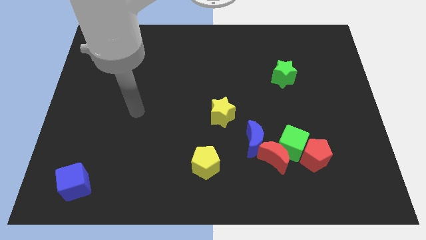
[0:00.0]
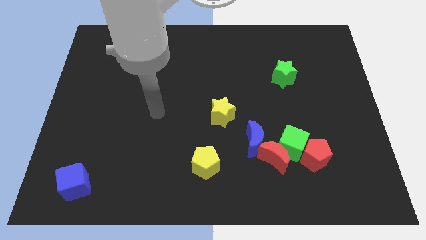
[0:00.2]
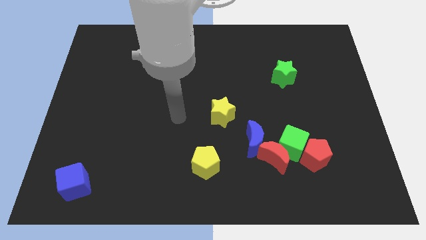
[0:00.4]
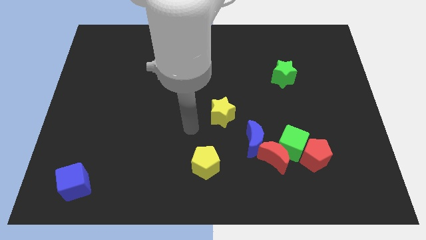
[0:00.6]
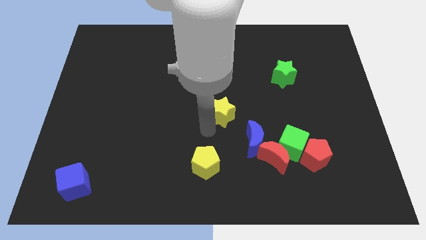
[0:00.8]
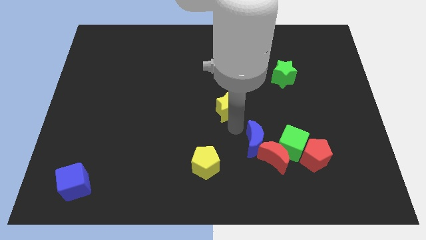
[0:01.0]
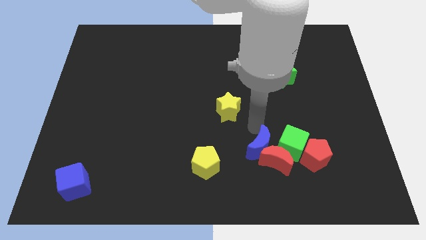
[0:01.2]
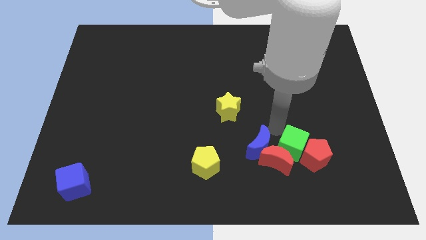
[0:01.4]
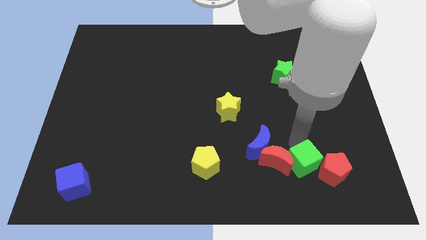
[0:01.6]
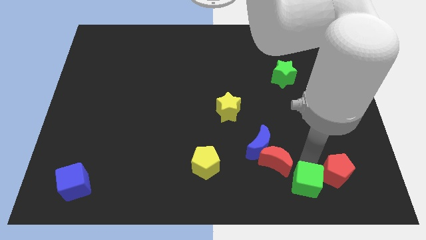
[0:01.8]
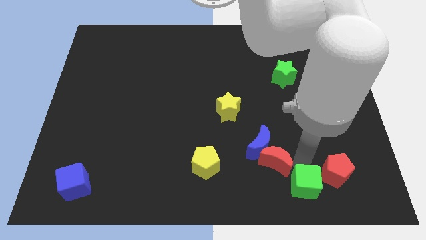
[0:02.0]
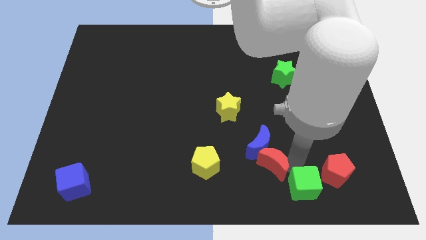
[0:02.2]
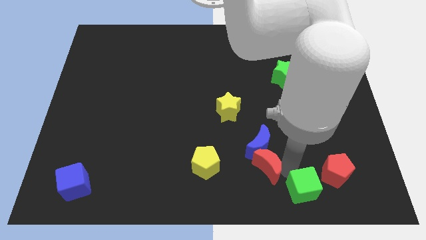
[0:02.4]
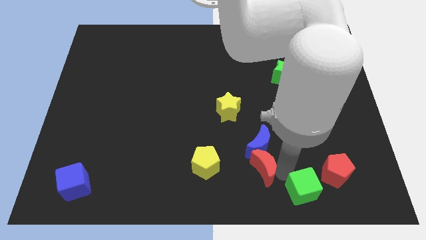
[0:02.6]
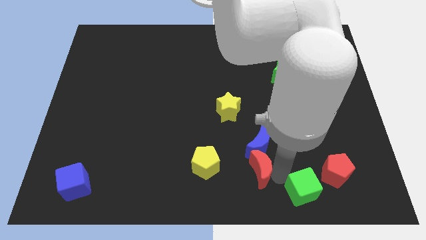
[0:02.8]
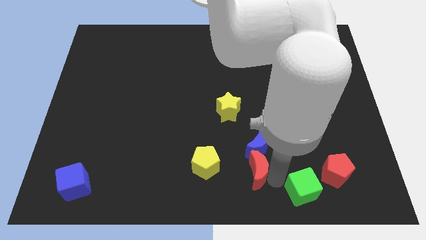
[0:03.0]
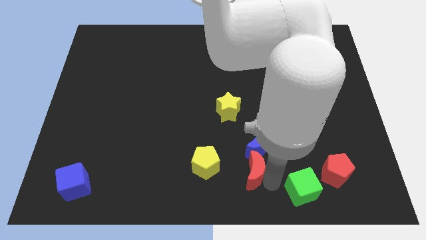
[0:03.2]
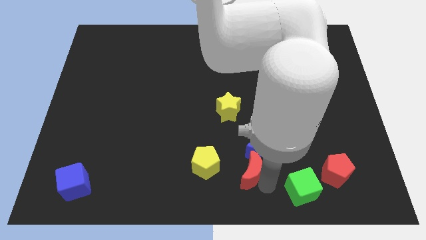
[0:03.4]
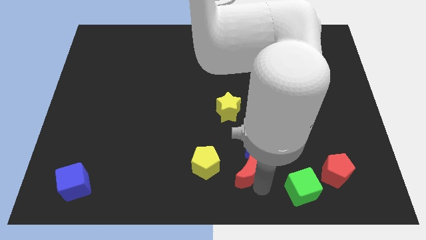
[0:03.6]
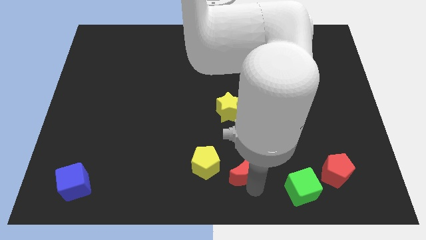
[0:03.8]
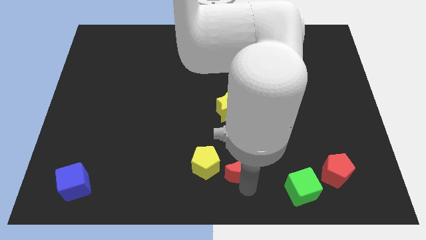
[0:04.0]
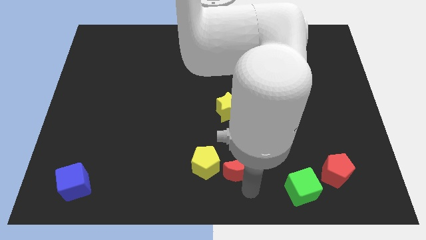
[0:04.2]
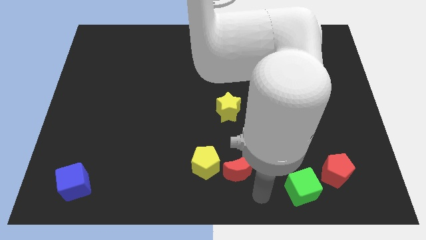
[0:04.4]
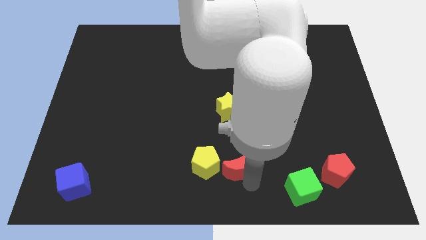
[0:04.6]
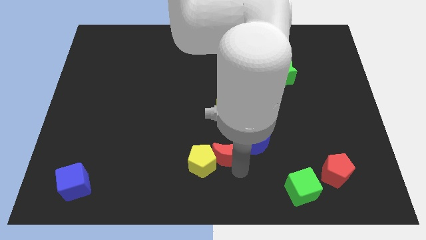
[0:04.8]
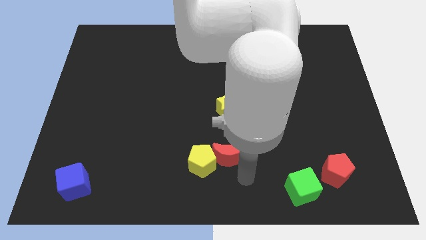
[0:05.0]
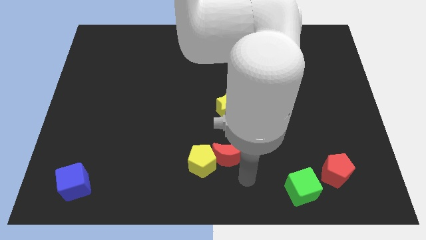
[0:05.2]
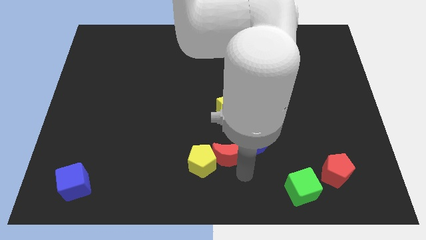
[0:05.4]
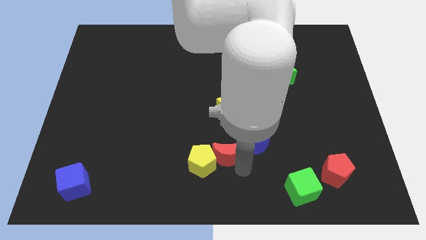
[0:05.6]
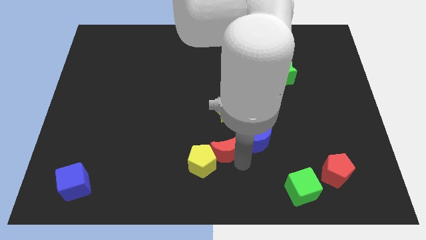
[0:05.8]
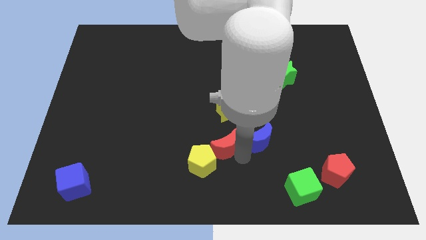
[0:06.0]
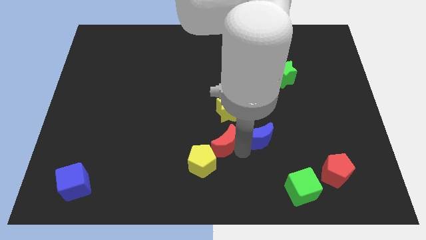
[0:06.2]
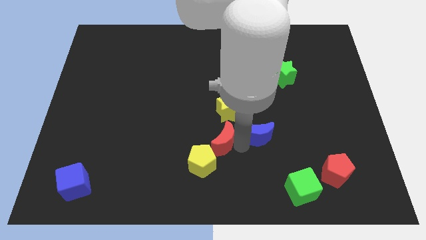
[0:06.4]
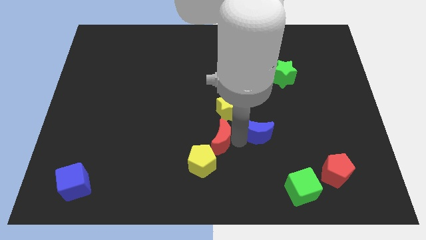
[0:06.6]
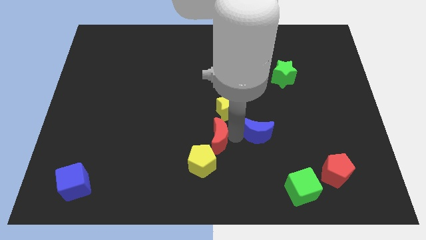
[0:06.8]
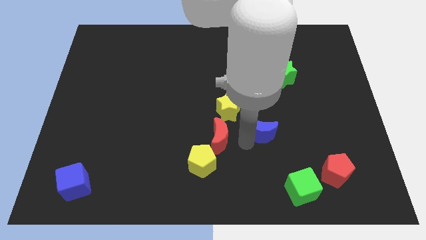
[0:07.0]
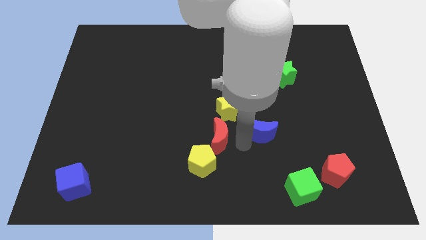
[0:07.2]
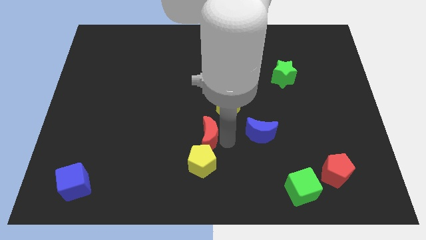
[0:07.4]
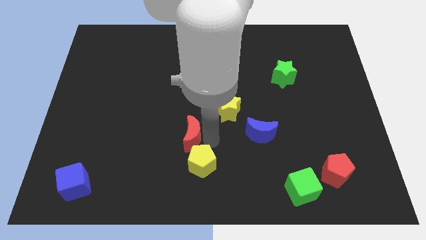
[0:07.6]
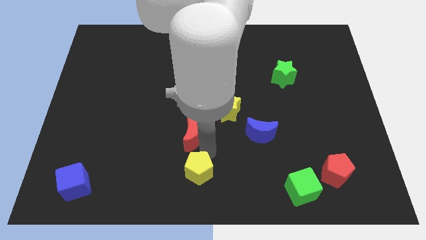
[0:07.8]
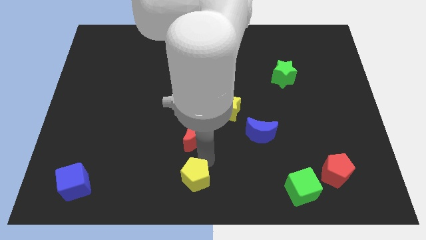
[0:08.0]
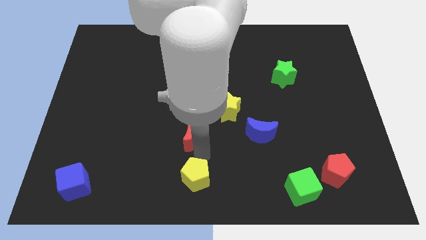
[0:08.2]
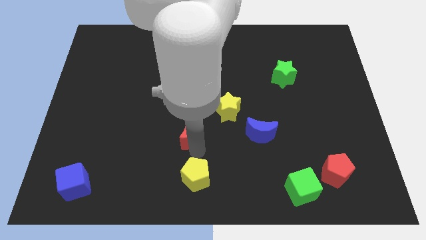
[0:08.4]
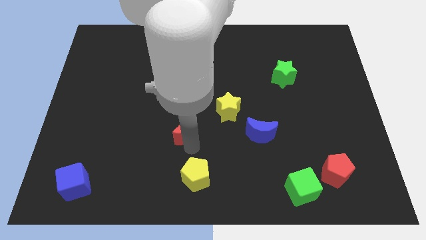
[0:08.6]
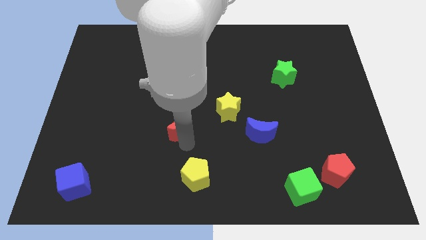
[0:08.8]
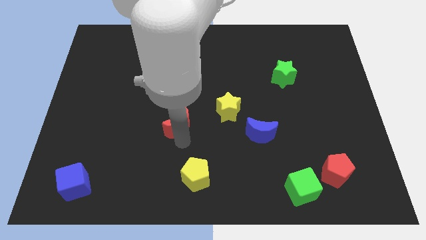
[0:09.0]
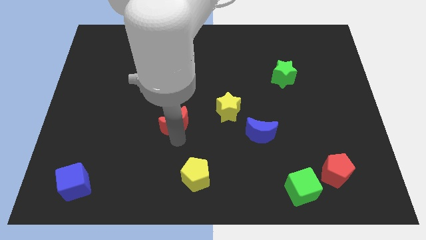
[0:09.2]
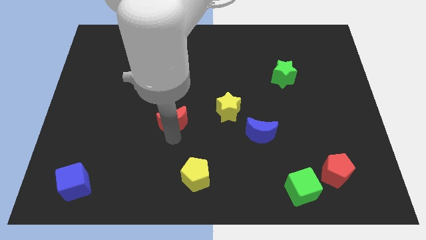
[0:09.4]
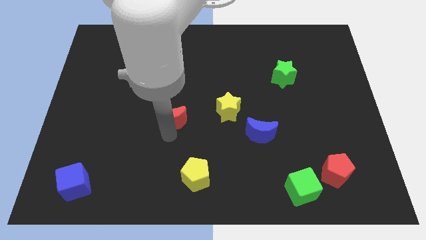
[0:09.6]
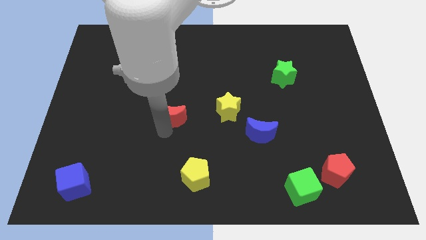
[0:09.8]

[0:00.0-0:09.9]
push the red moon upwards and left

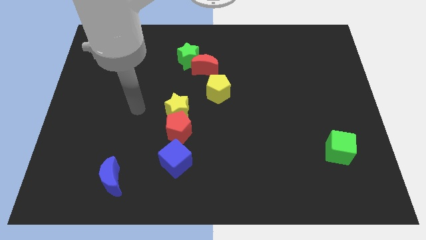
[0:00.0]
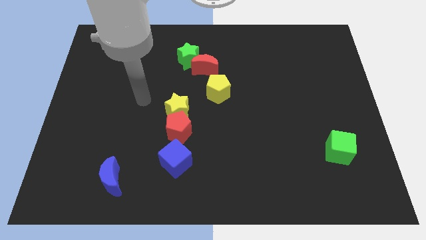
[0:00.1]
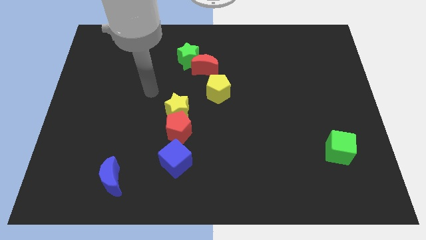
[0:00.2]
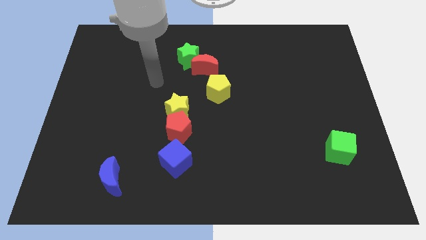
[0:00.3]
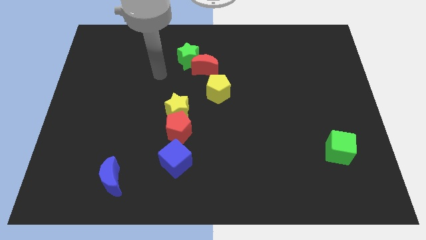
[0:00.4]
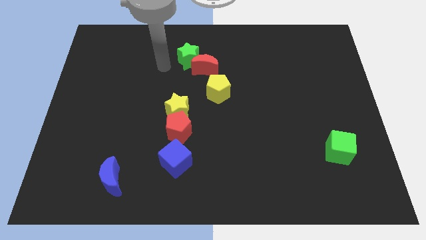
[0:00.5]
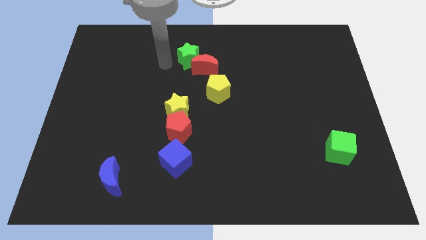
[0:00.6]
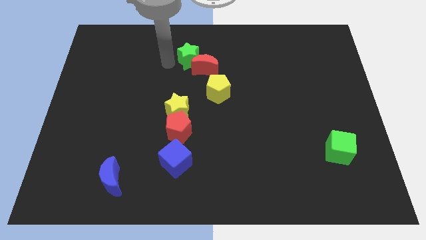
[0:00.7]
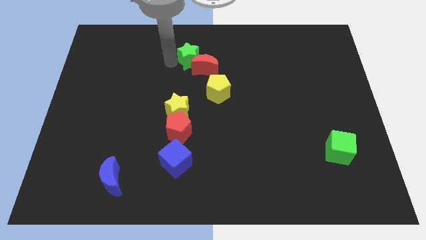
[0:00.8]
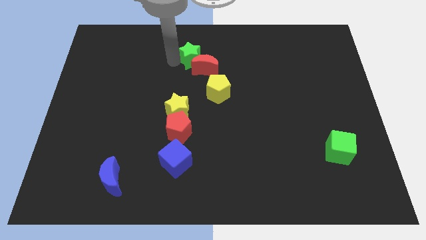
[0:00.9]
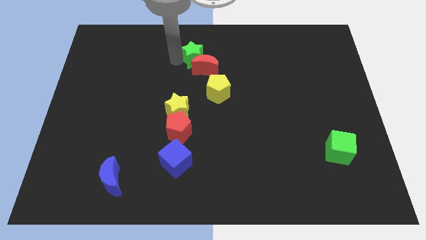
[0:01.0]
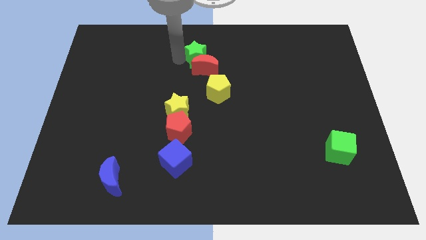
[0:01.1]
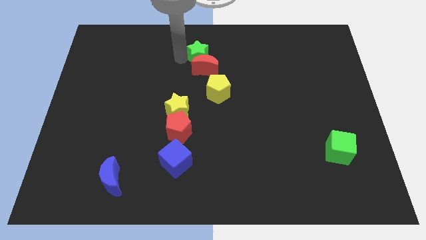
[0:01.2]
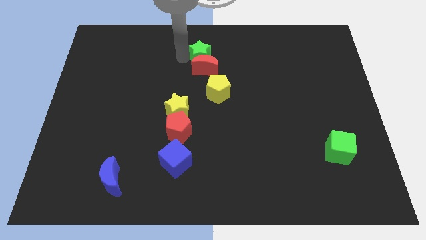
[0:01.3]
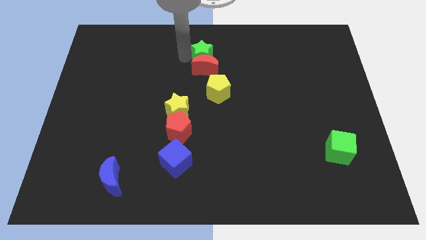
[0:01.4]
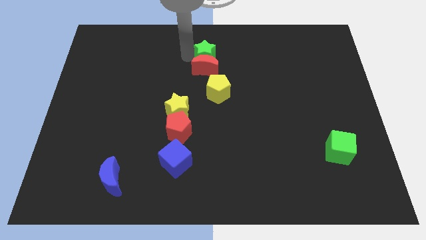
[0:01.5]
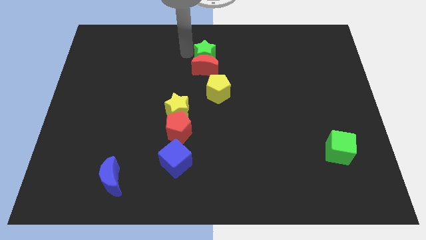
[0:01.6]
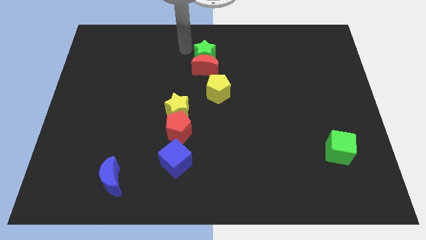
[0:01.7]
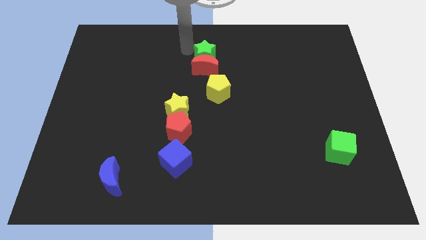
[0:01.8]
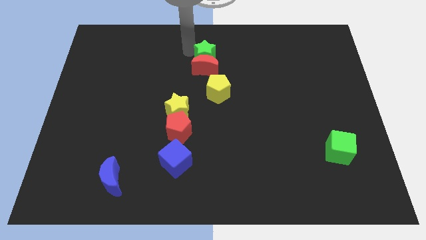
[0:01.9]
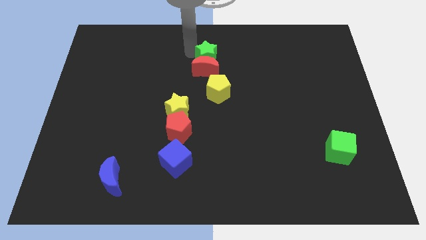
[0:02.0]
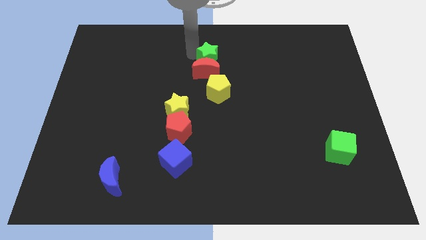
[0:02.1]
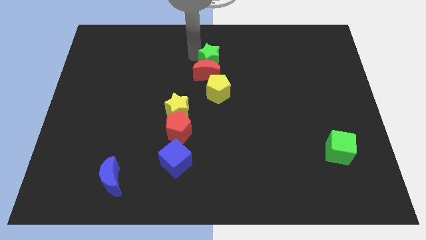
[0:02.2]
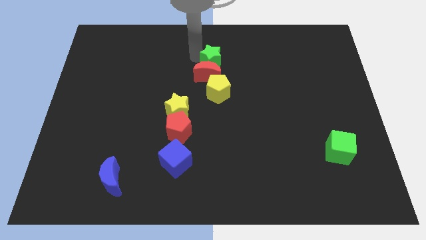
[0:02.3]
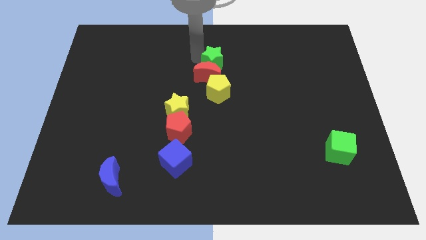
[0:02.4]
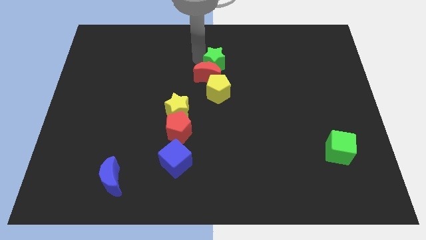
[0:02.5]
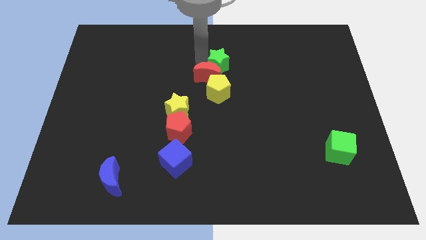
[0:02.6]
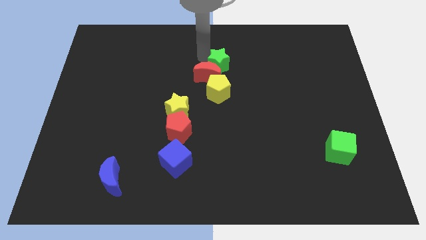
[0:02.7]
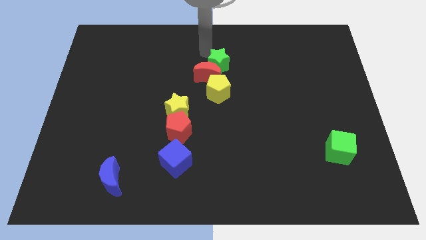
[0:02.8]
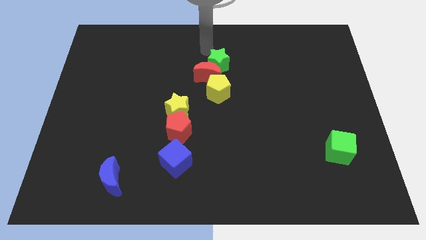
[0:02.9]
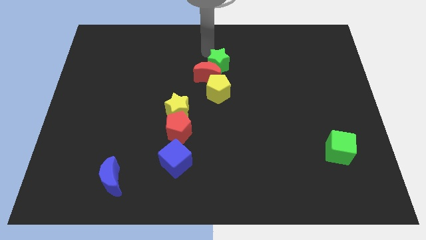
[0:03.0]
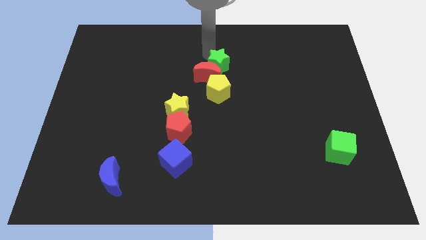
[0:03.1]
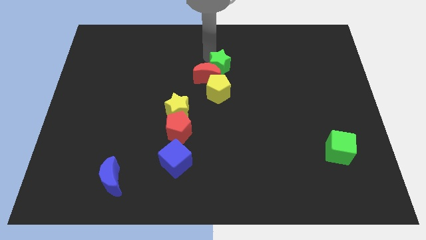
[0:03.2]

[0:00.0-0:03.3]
slightly push the green star diagonally downwards and right
